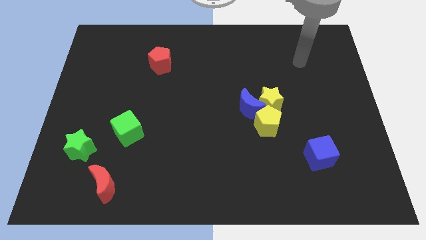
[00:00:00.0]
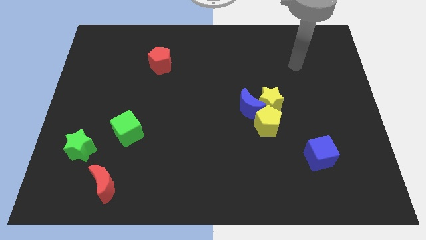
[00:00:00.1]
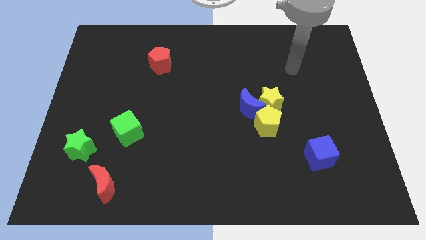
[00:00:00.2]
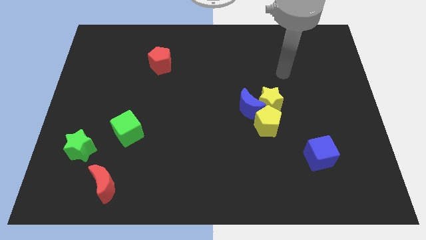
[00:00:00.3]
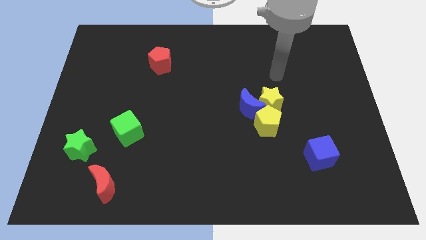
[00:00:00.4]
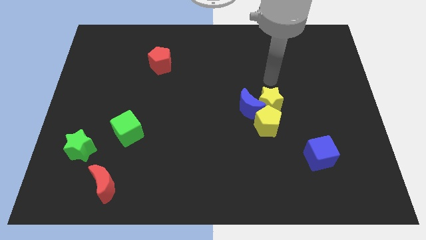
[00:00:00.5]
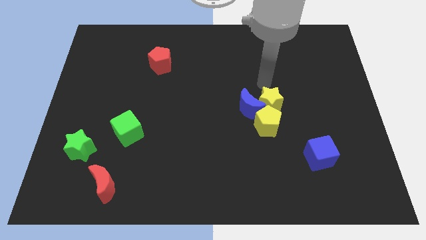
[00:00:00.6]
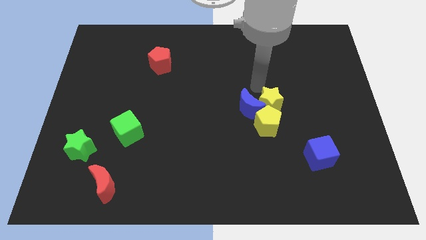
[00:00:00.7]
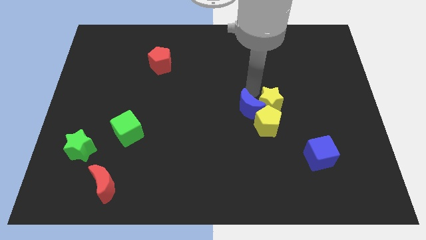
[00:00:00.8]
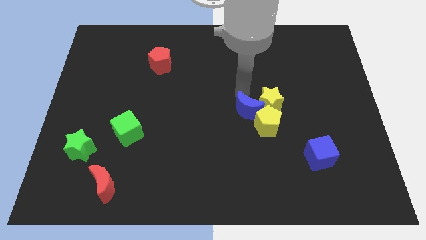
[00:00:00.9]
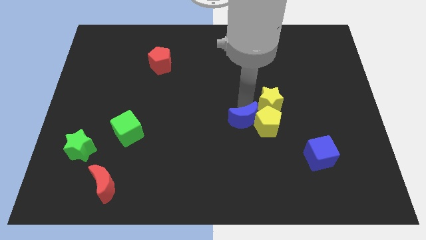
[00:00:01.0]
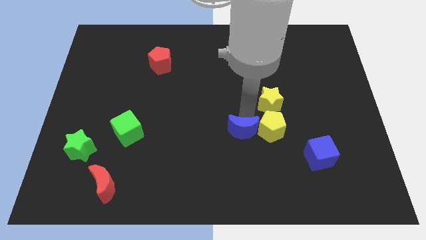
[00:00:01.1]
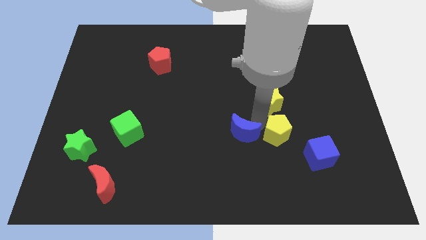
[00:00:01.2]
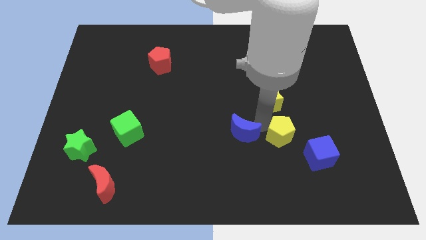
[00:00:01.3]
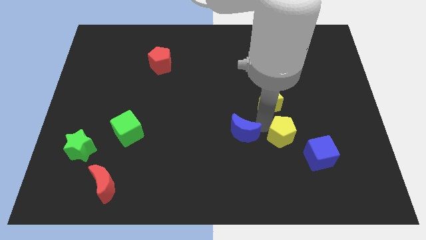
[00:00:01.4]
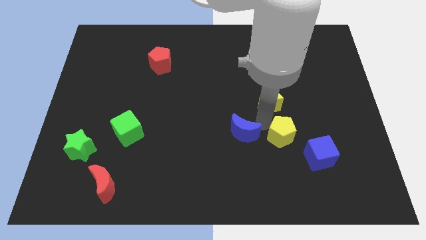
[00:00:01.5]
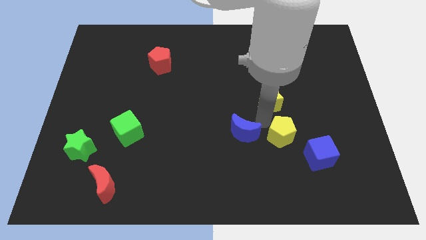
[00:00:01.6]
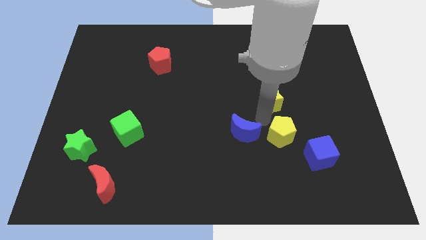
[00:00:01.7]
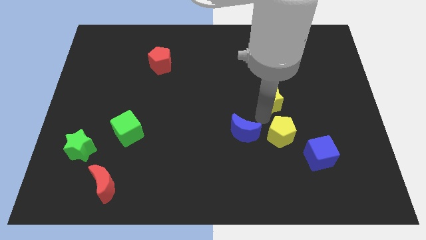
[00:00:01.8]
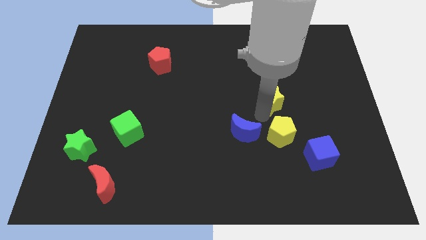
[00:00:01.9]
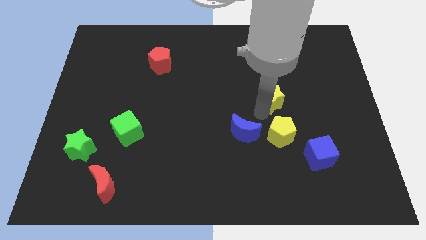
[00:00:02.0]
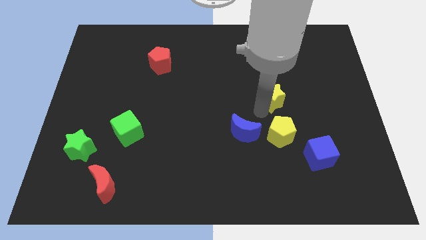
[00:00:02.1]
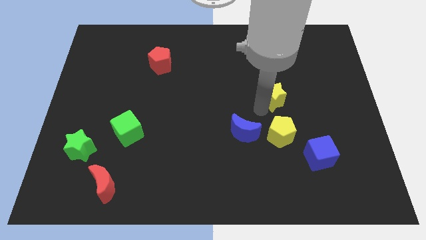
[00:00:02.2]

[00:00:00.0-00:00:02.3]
separate the yellow star from the blue moon and yellow pentagon

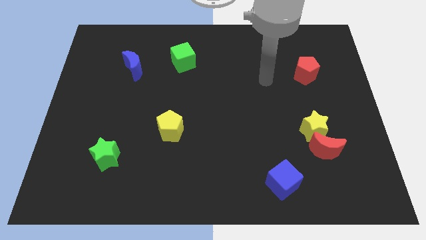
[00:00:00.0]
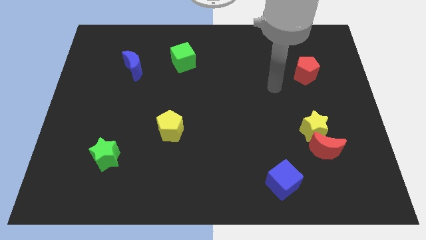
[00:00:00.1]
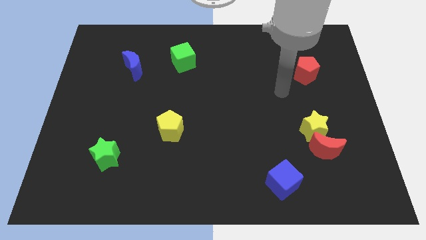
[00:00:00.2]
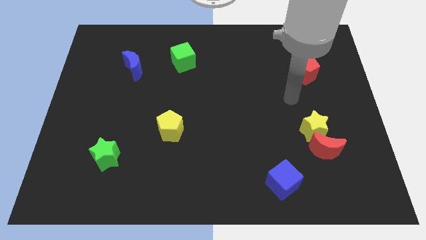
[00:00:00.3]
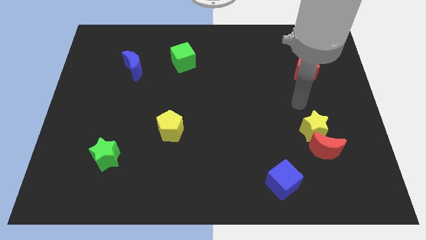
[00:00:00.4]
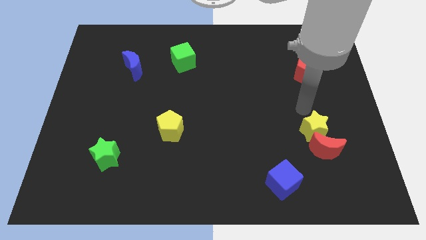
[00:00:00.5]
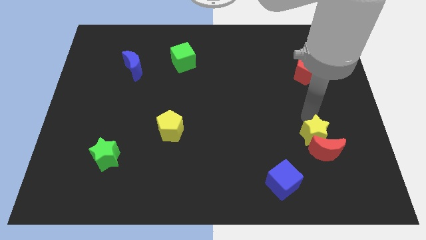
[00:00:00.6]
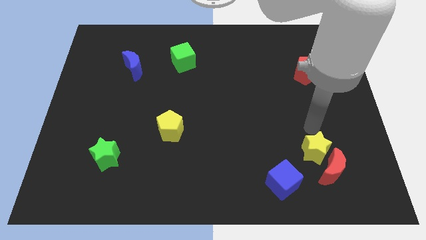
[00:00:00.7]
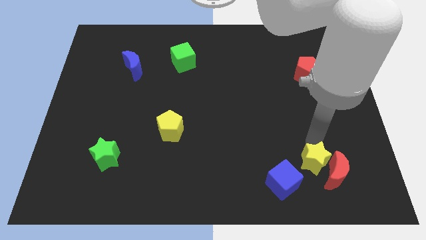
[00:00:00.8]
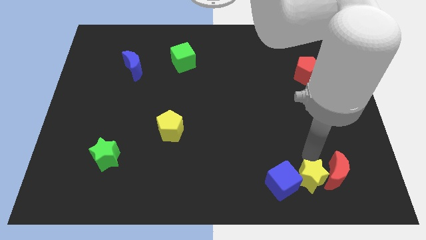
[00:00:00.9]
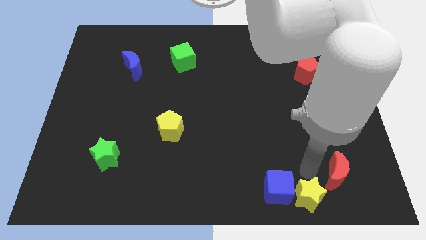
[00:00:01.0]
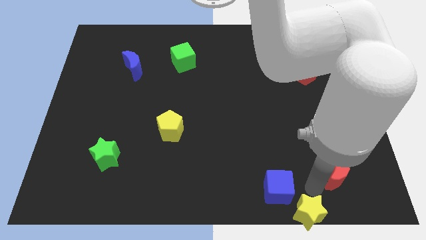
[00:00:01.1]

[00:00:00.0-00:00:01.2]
separate the red moon from the yellow star

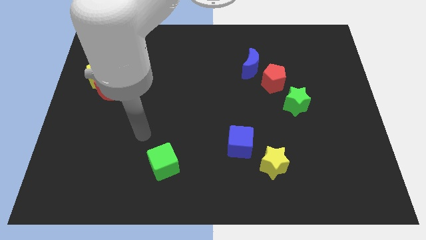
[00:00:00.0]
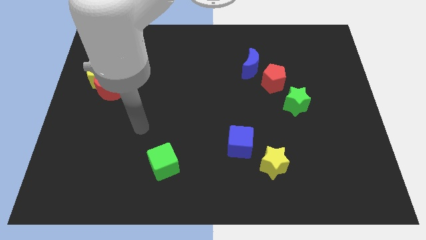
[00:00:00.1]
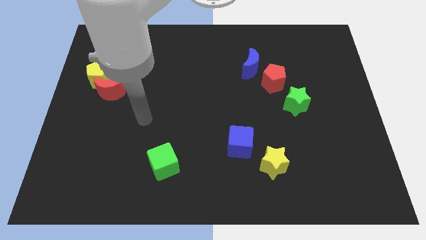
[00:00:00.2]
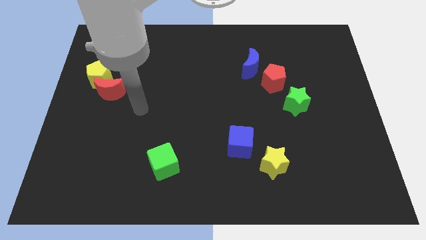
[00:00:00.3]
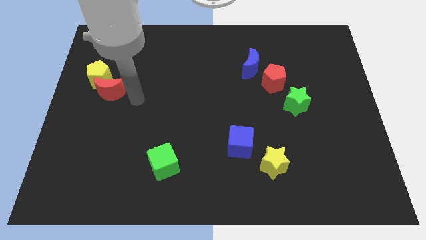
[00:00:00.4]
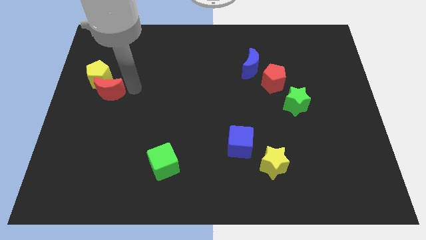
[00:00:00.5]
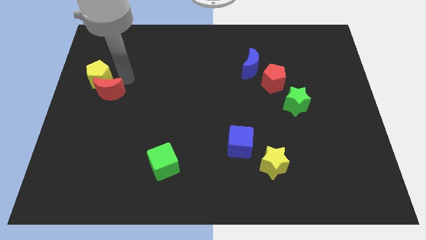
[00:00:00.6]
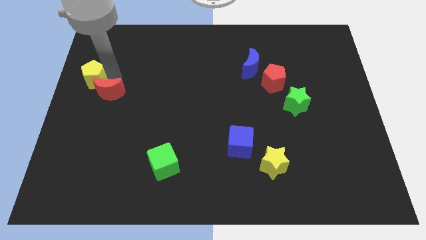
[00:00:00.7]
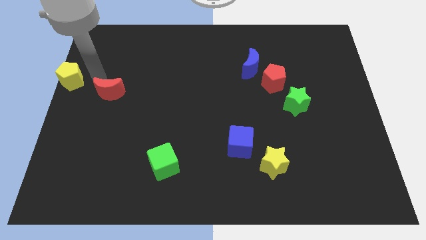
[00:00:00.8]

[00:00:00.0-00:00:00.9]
move the red moon away from the yellow pentagon

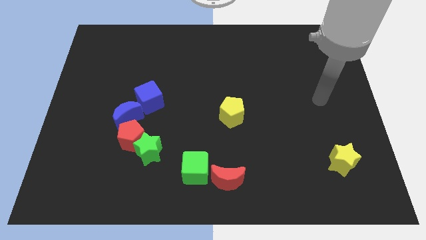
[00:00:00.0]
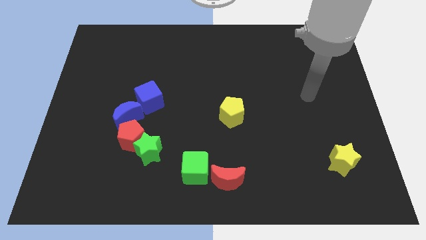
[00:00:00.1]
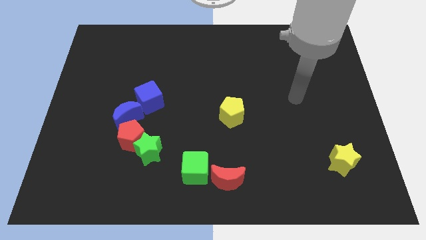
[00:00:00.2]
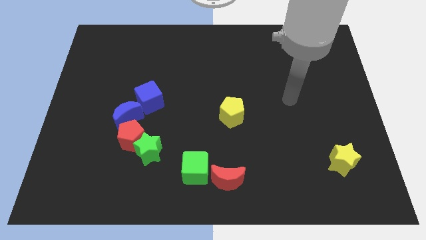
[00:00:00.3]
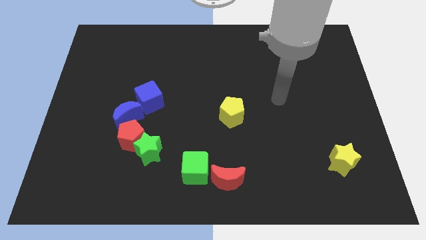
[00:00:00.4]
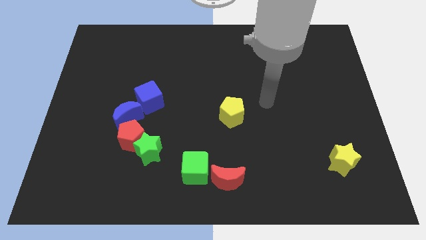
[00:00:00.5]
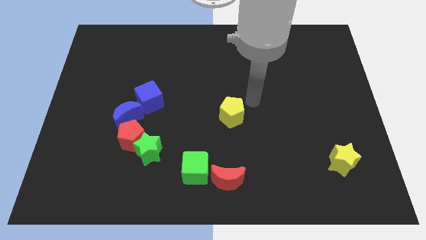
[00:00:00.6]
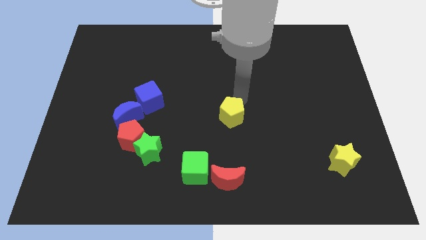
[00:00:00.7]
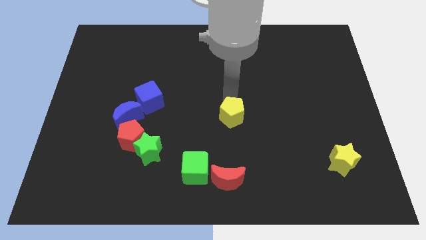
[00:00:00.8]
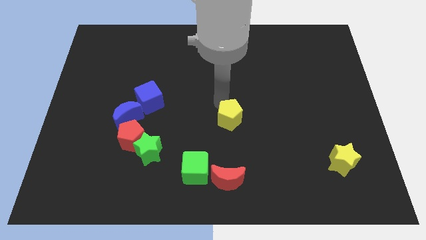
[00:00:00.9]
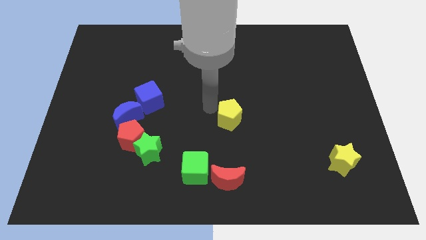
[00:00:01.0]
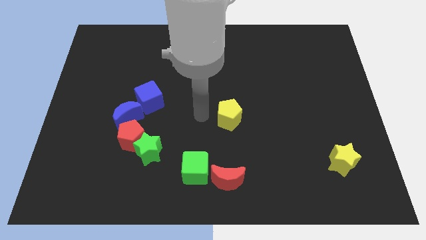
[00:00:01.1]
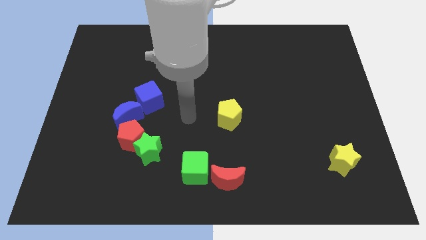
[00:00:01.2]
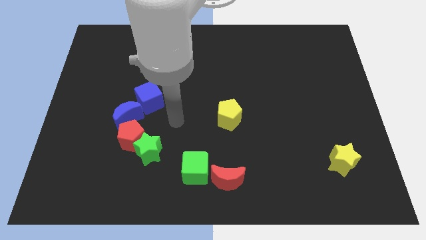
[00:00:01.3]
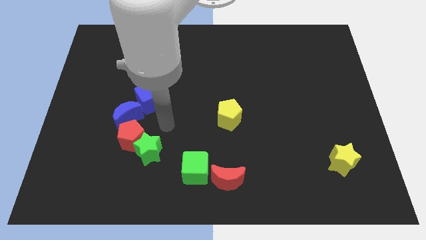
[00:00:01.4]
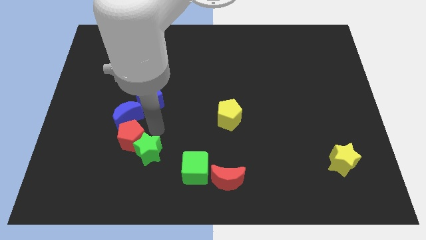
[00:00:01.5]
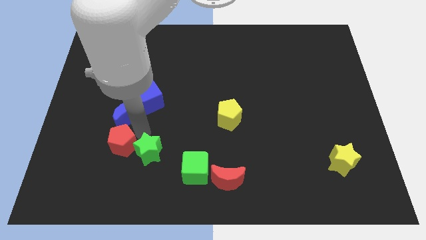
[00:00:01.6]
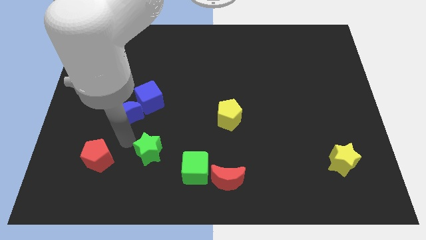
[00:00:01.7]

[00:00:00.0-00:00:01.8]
move the green star away from the red pentagon

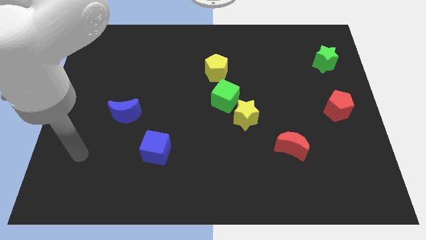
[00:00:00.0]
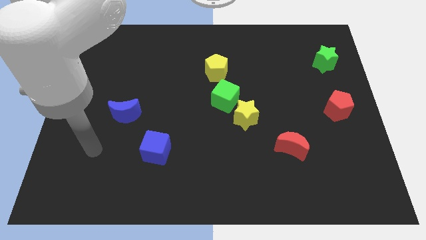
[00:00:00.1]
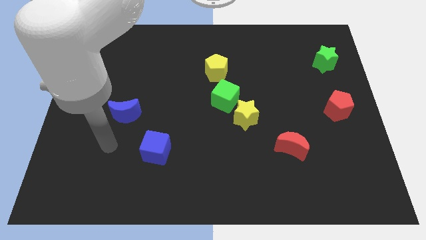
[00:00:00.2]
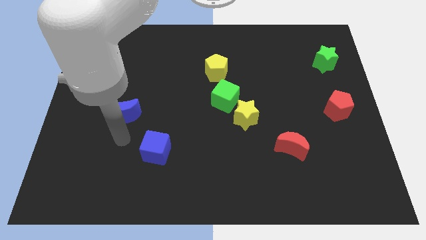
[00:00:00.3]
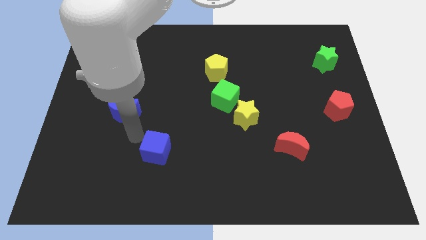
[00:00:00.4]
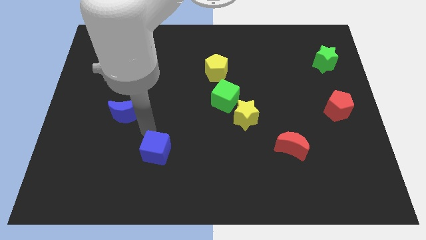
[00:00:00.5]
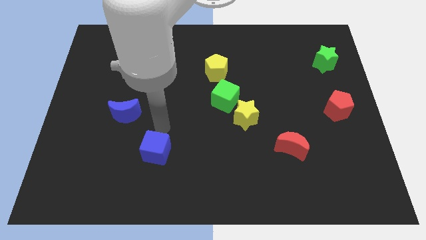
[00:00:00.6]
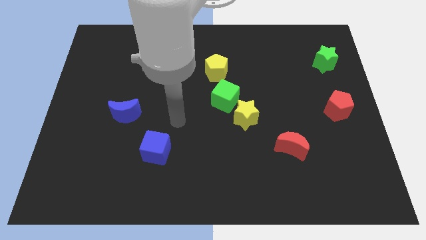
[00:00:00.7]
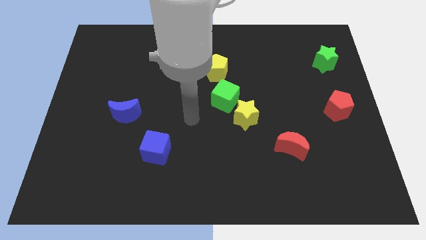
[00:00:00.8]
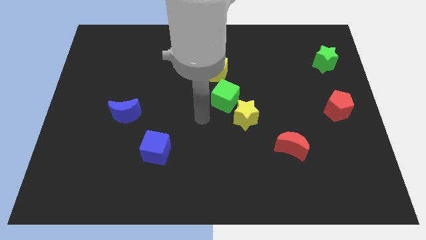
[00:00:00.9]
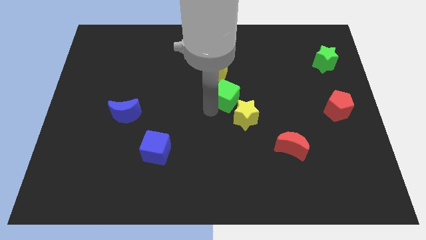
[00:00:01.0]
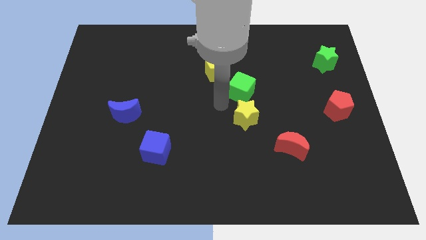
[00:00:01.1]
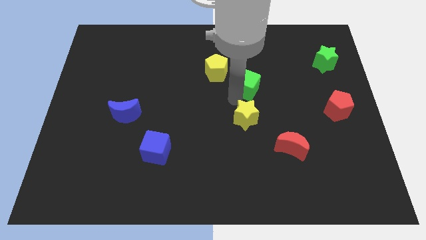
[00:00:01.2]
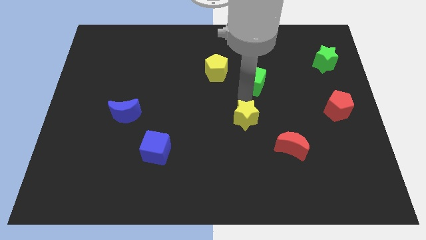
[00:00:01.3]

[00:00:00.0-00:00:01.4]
pull the yellow star apart from the green cube

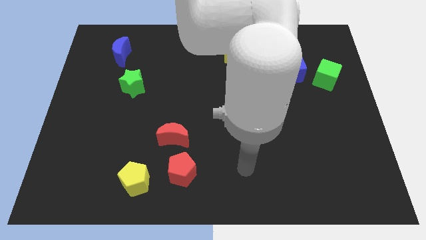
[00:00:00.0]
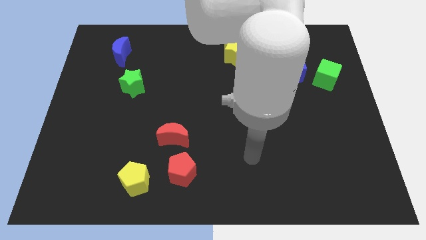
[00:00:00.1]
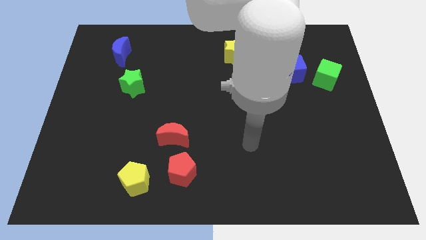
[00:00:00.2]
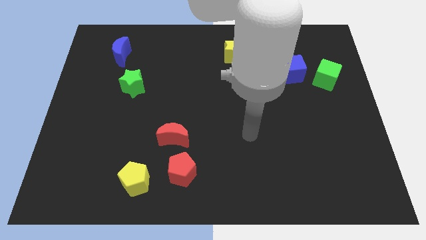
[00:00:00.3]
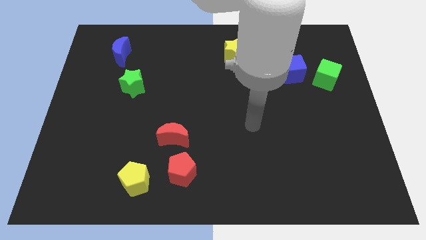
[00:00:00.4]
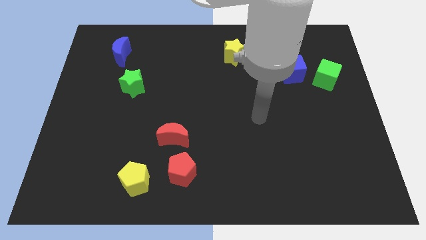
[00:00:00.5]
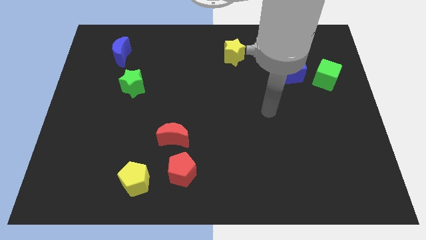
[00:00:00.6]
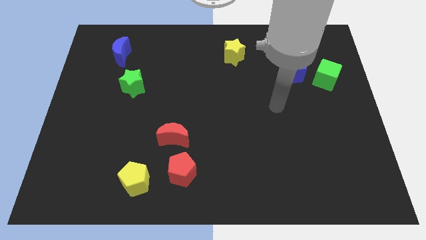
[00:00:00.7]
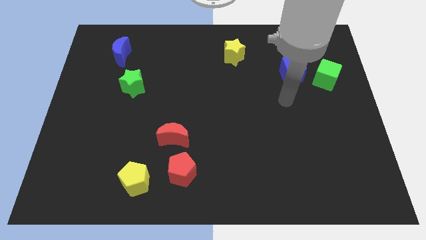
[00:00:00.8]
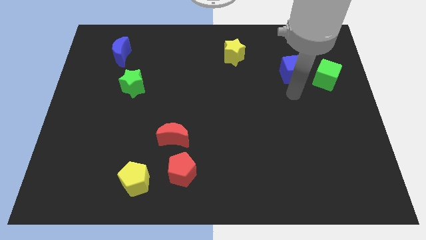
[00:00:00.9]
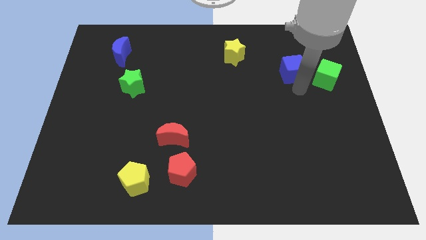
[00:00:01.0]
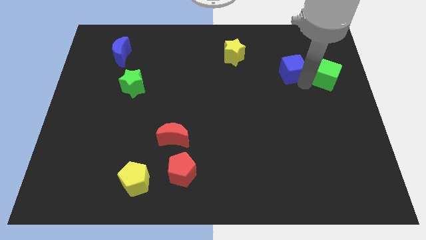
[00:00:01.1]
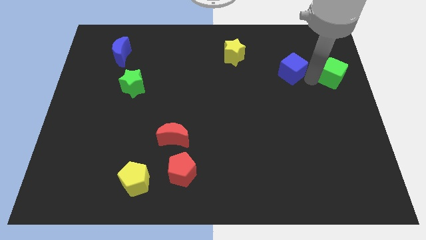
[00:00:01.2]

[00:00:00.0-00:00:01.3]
move the blue cube away from the green cube

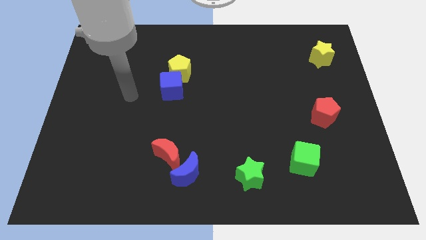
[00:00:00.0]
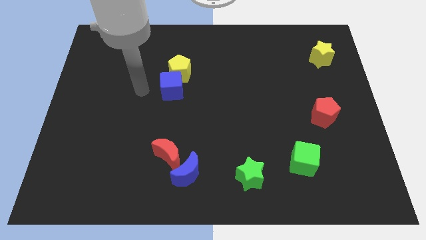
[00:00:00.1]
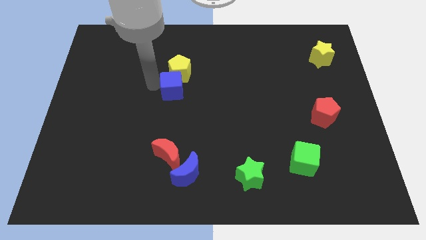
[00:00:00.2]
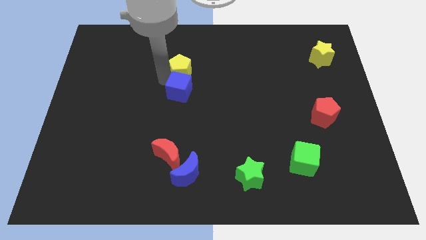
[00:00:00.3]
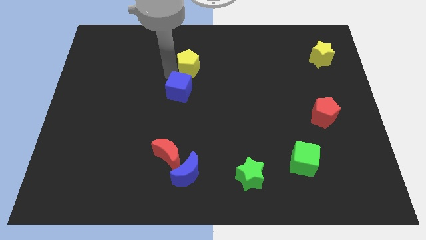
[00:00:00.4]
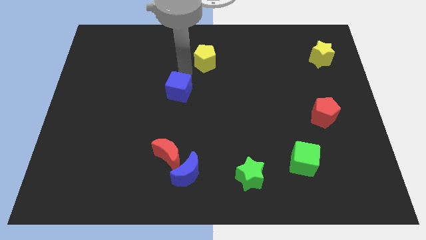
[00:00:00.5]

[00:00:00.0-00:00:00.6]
move the blue cube away from the yellow pentagon
